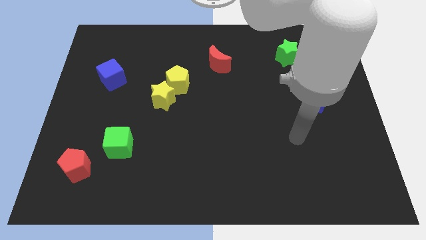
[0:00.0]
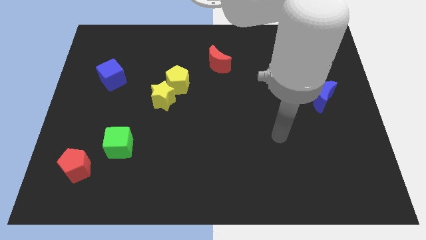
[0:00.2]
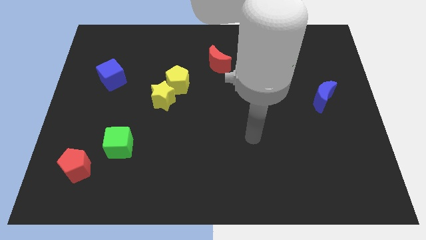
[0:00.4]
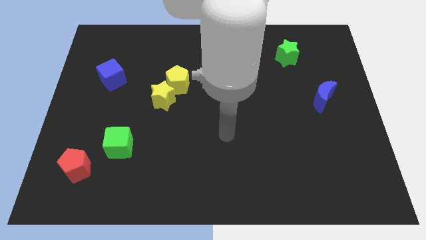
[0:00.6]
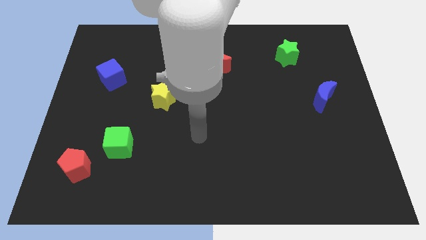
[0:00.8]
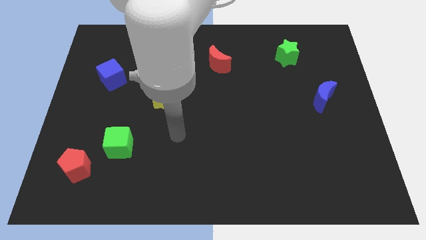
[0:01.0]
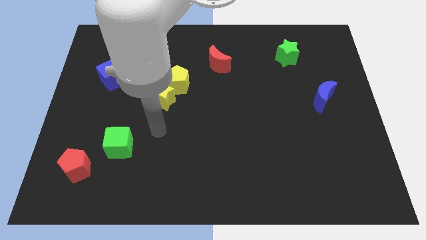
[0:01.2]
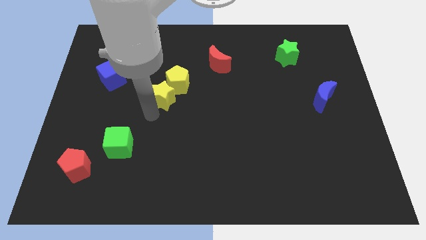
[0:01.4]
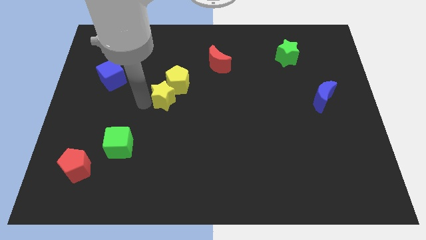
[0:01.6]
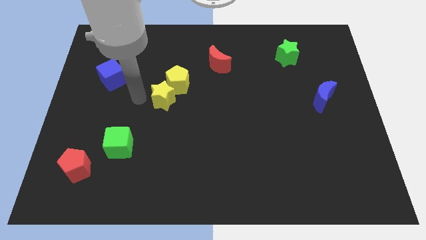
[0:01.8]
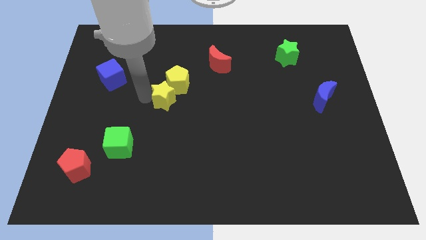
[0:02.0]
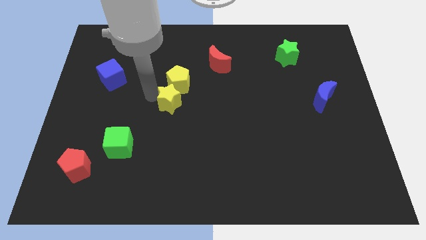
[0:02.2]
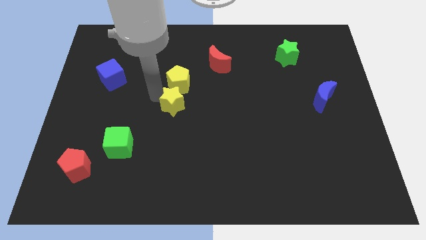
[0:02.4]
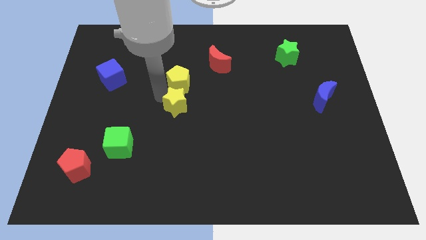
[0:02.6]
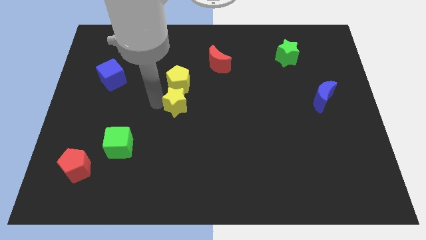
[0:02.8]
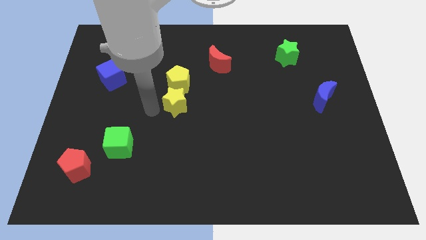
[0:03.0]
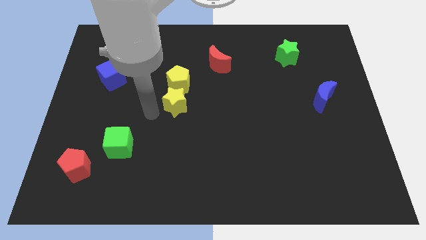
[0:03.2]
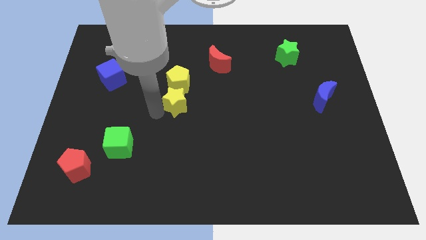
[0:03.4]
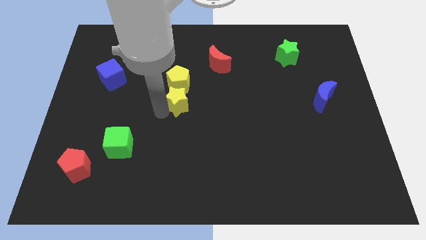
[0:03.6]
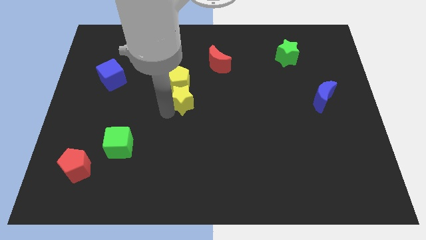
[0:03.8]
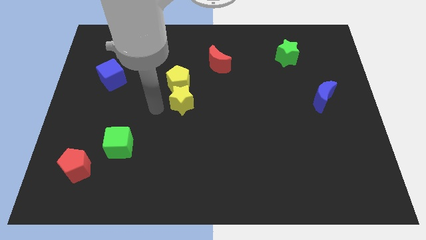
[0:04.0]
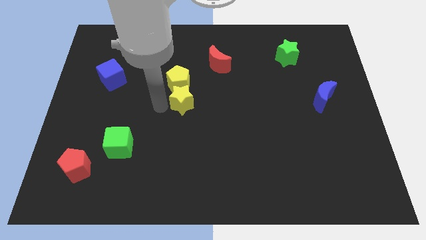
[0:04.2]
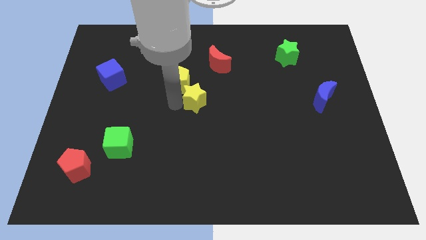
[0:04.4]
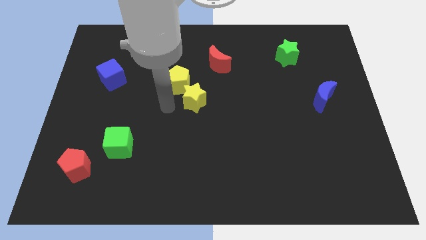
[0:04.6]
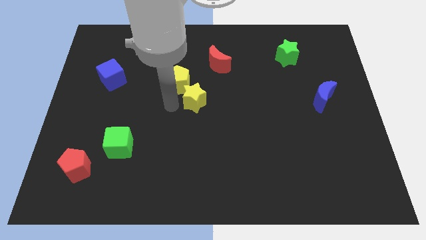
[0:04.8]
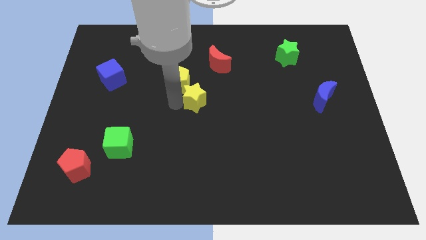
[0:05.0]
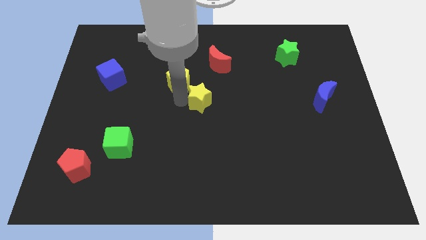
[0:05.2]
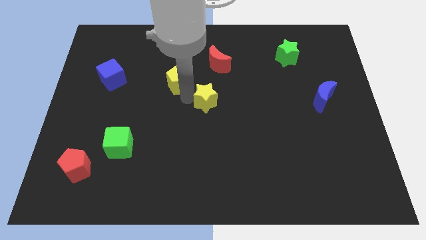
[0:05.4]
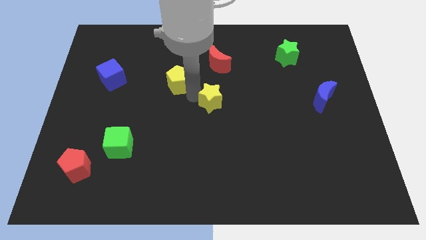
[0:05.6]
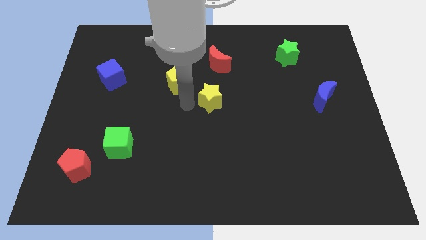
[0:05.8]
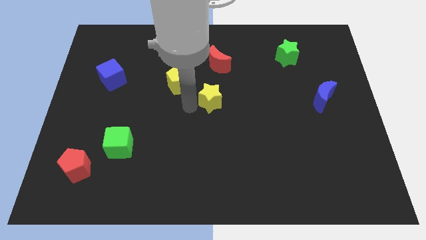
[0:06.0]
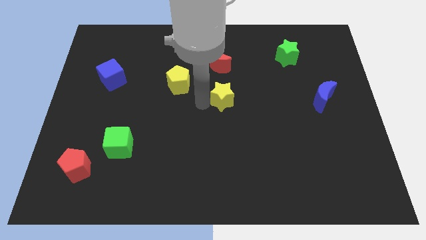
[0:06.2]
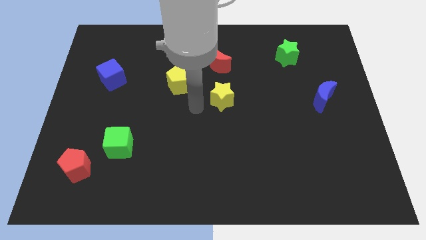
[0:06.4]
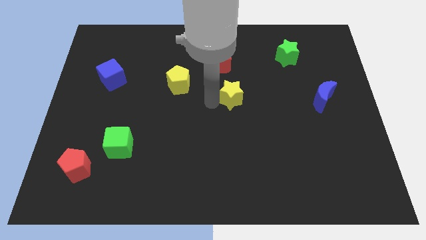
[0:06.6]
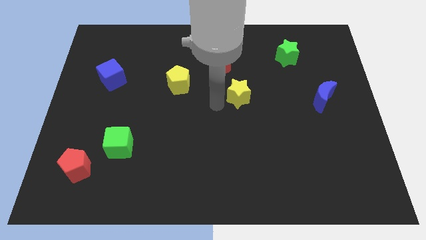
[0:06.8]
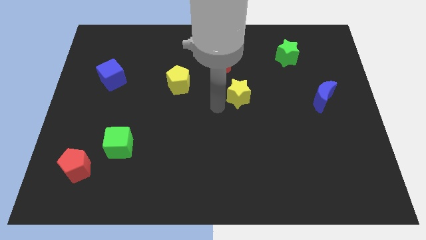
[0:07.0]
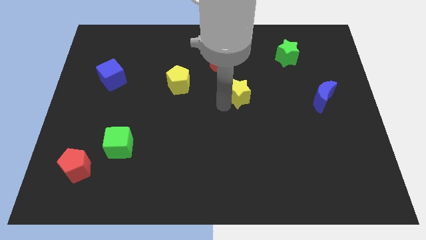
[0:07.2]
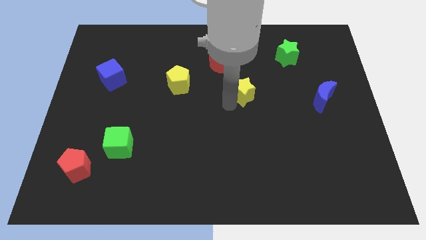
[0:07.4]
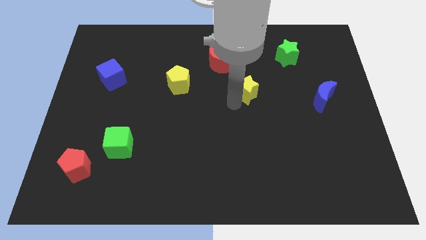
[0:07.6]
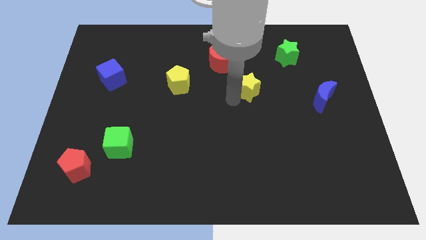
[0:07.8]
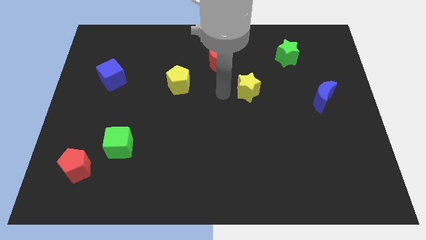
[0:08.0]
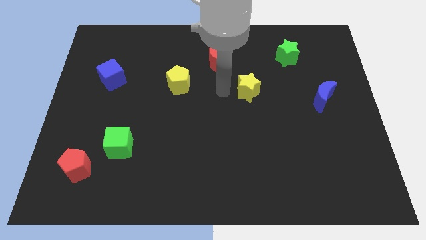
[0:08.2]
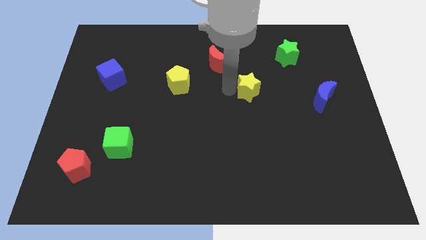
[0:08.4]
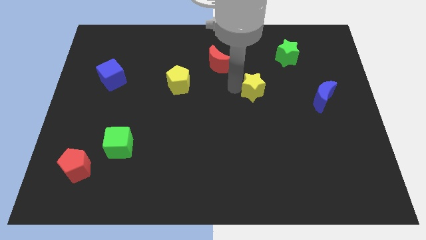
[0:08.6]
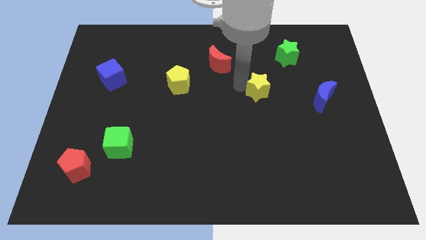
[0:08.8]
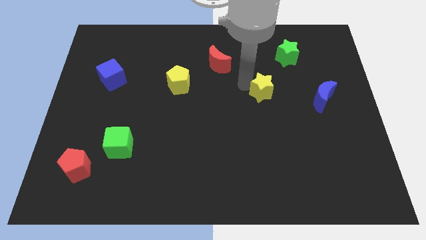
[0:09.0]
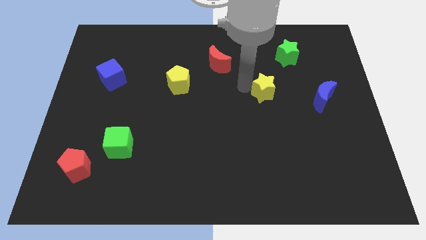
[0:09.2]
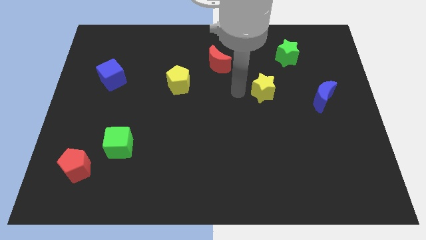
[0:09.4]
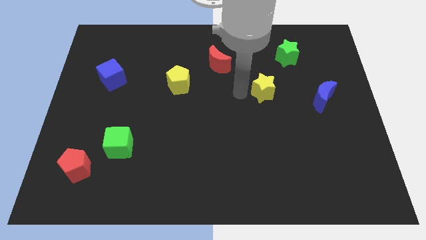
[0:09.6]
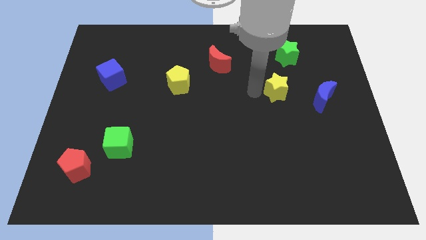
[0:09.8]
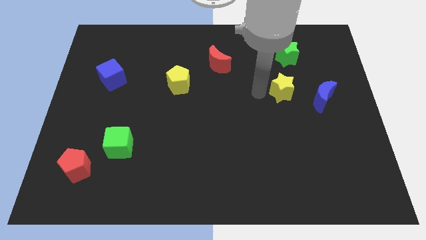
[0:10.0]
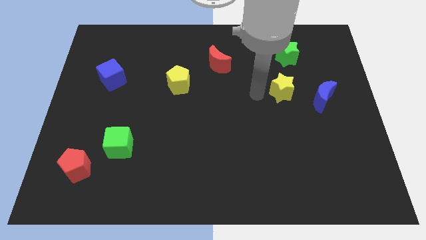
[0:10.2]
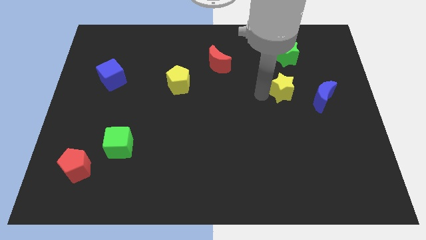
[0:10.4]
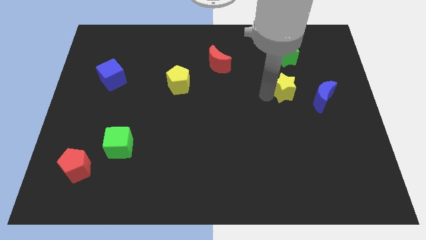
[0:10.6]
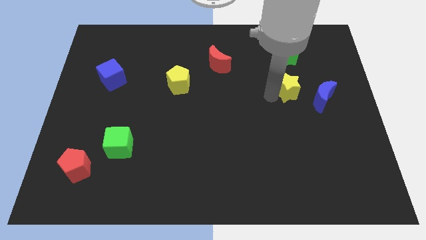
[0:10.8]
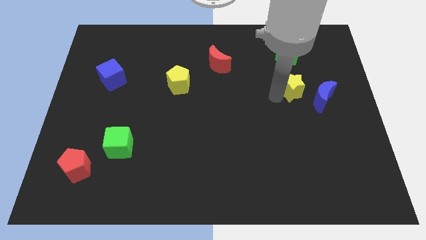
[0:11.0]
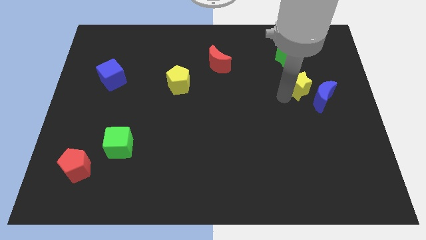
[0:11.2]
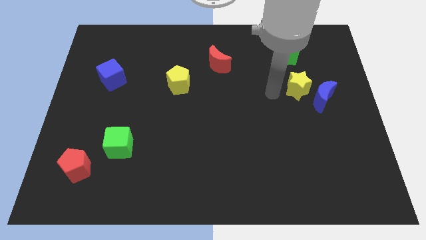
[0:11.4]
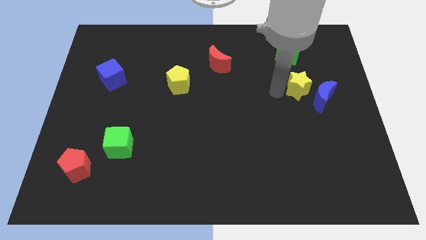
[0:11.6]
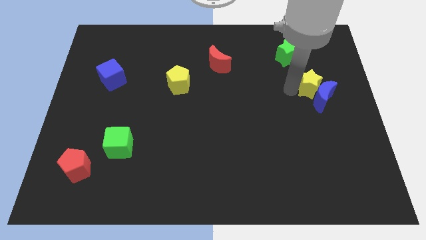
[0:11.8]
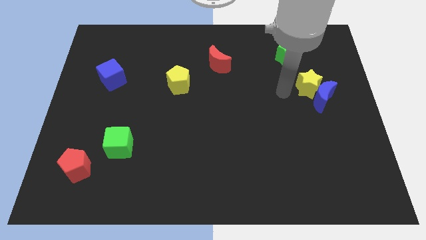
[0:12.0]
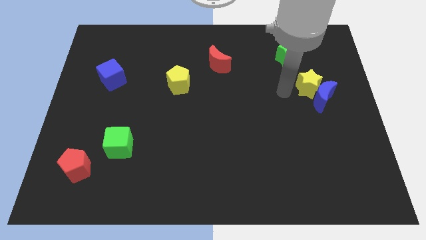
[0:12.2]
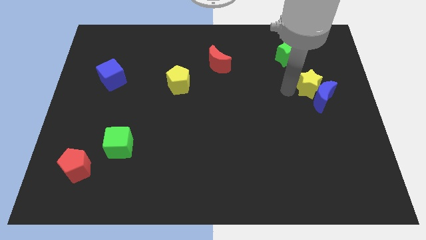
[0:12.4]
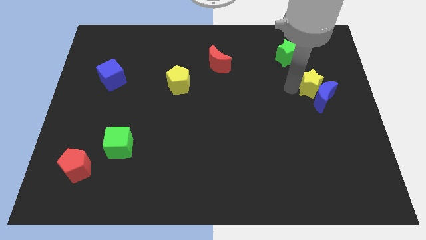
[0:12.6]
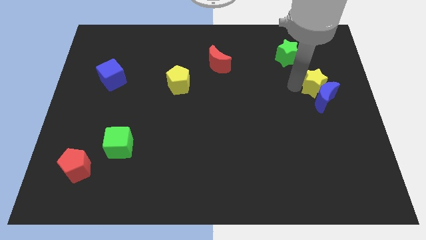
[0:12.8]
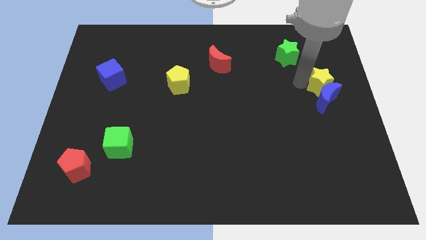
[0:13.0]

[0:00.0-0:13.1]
put the yellow star to the right side of the board

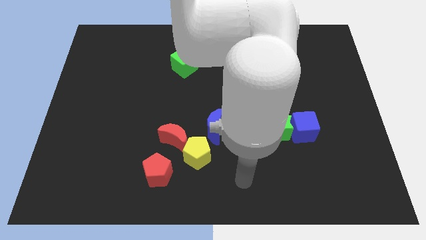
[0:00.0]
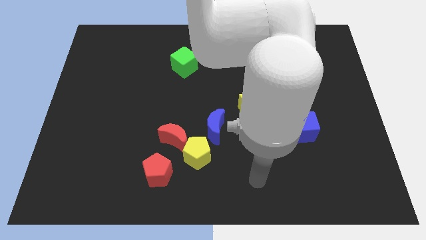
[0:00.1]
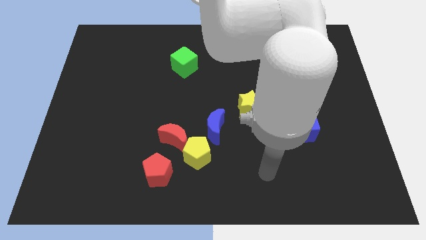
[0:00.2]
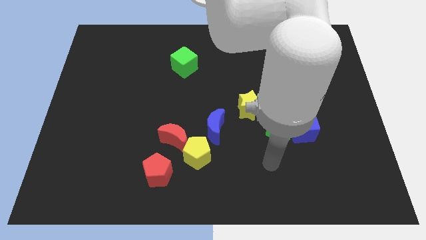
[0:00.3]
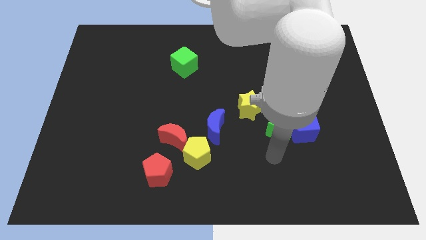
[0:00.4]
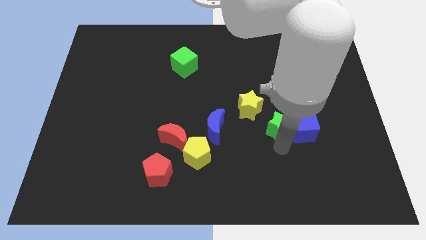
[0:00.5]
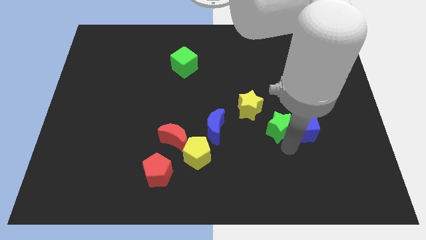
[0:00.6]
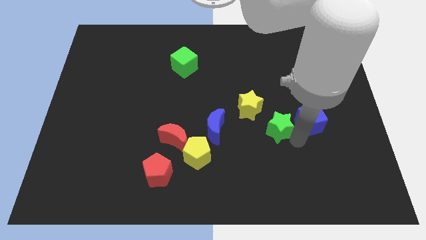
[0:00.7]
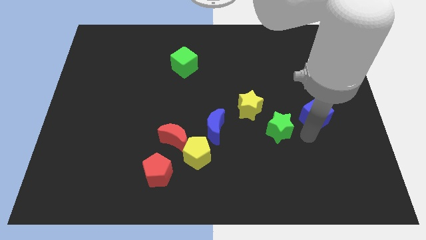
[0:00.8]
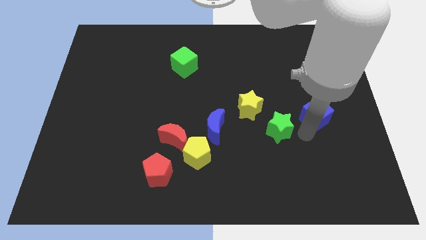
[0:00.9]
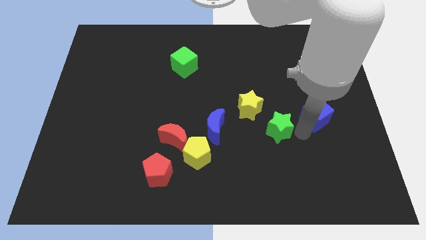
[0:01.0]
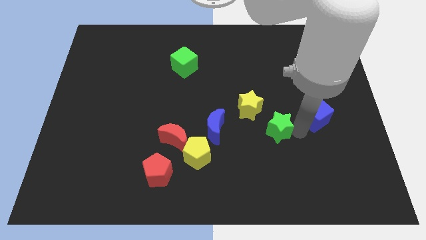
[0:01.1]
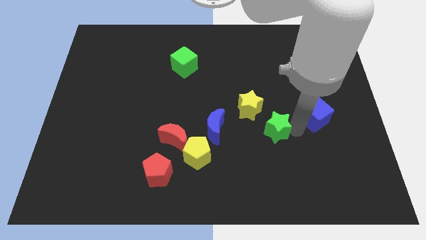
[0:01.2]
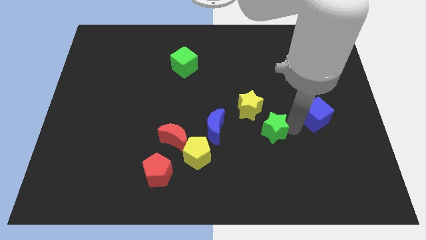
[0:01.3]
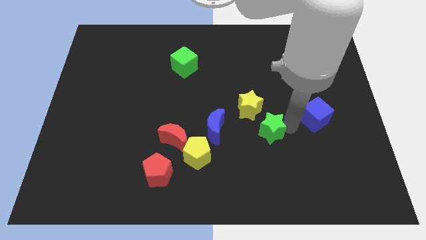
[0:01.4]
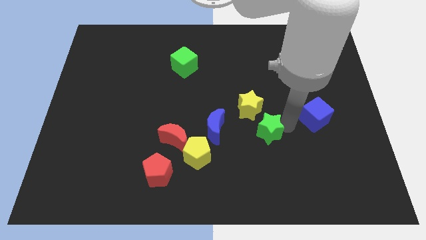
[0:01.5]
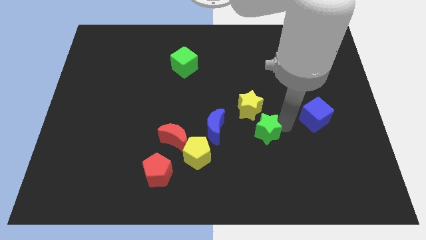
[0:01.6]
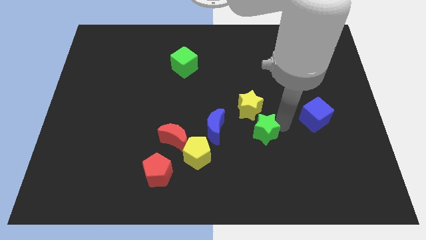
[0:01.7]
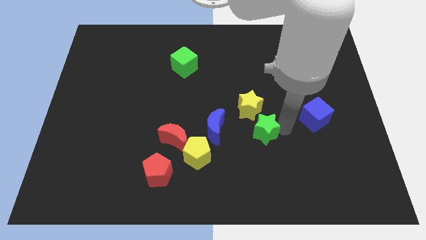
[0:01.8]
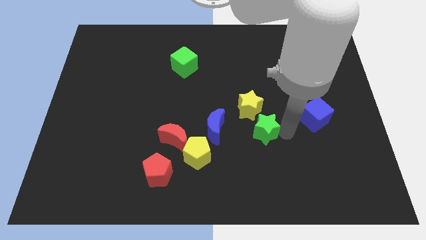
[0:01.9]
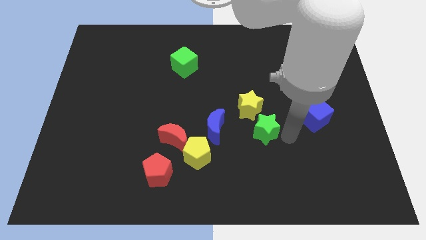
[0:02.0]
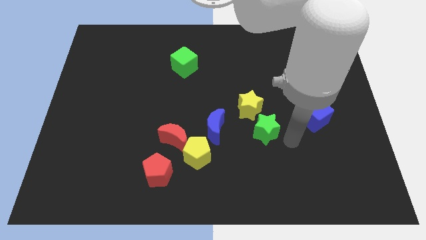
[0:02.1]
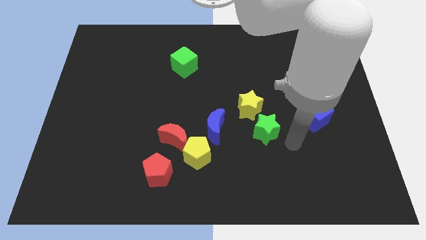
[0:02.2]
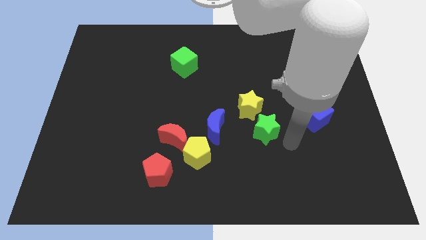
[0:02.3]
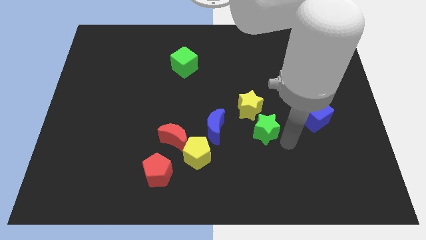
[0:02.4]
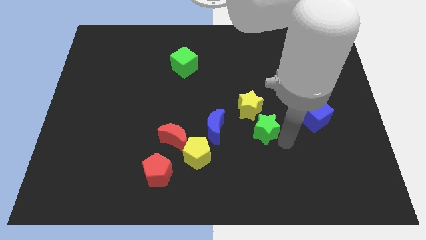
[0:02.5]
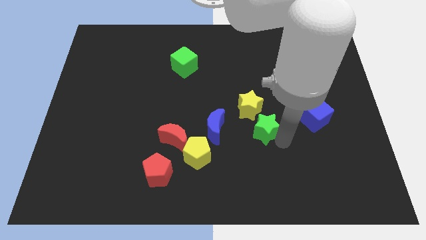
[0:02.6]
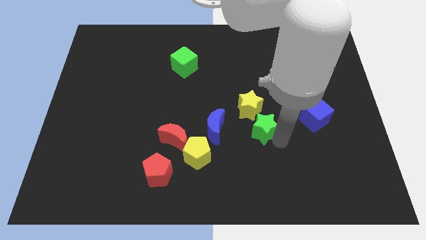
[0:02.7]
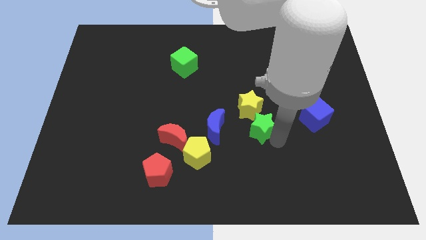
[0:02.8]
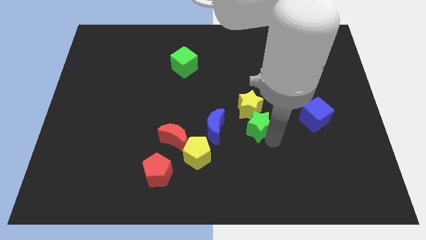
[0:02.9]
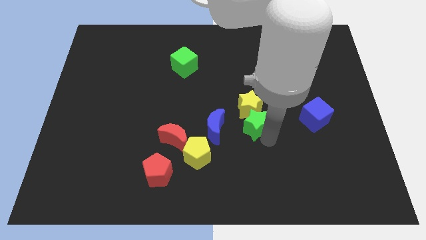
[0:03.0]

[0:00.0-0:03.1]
put the green star to the center
